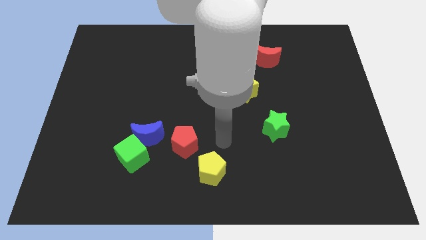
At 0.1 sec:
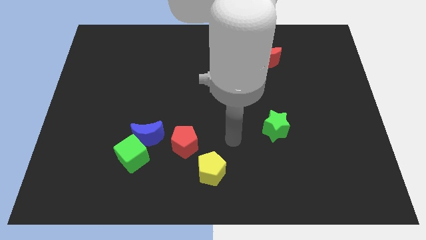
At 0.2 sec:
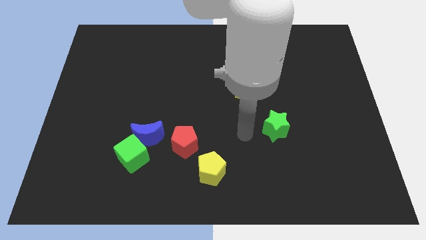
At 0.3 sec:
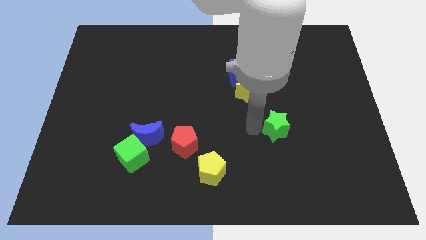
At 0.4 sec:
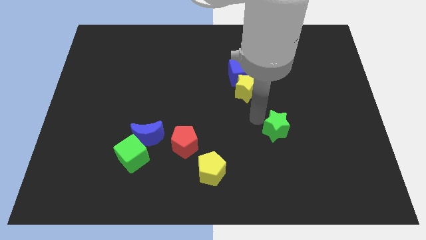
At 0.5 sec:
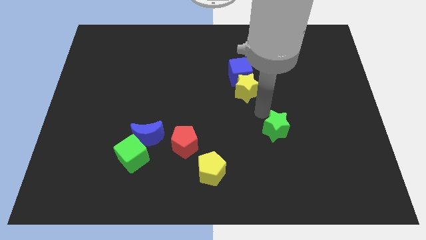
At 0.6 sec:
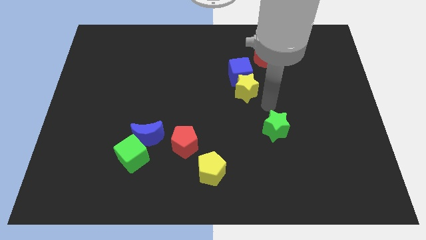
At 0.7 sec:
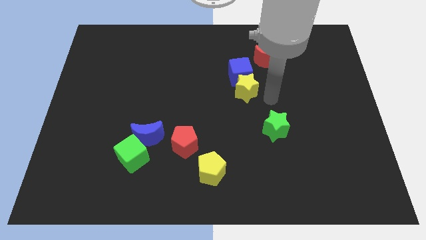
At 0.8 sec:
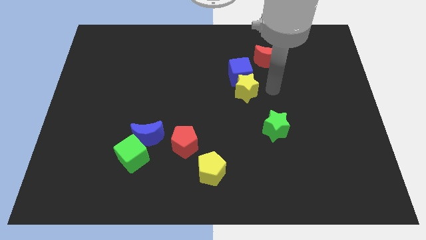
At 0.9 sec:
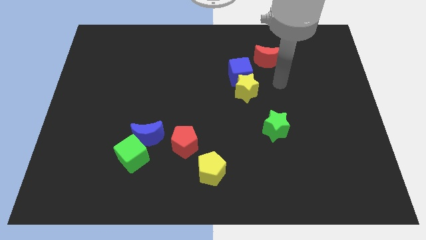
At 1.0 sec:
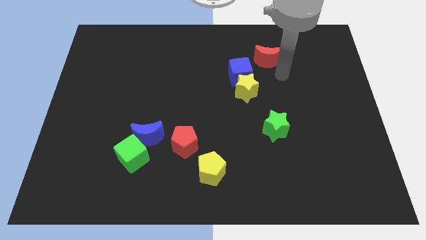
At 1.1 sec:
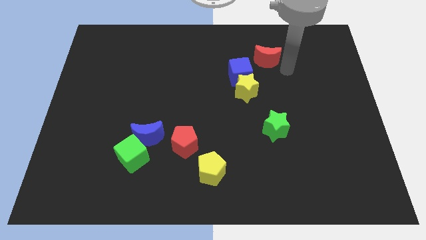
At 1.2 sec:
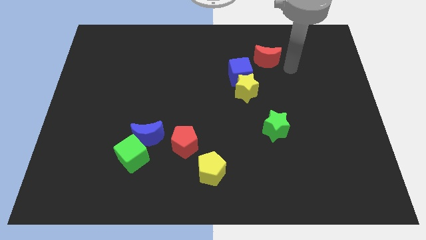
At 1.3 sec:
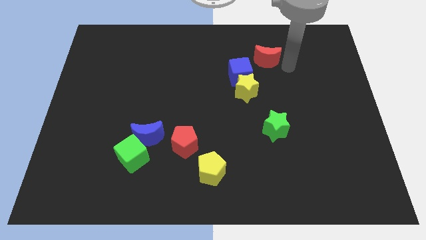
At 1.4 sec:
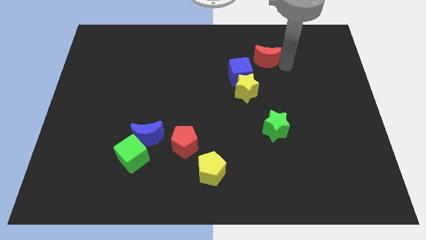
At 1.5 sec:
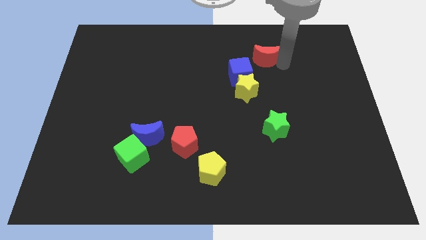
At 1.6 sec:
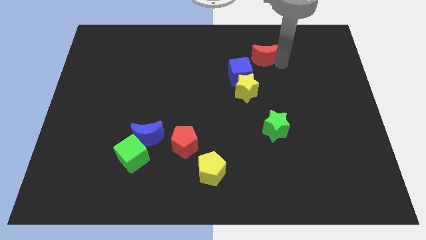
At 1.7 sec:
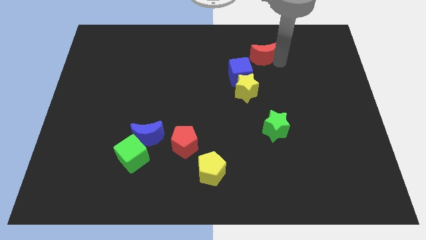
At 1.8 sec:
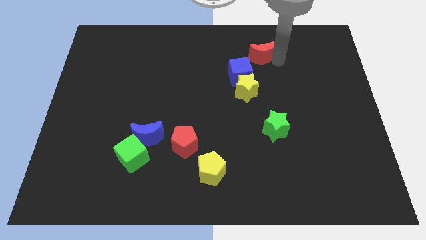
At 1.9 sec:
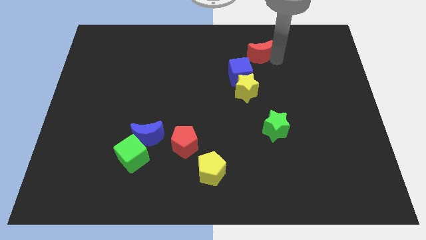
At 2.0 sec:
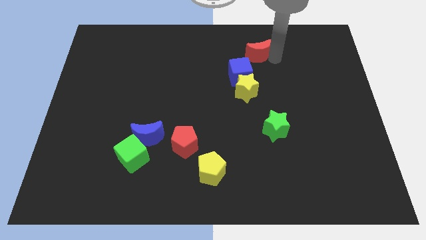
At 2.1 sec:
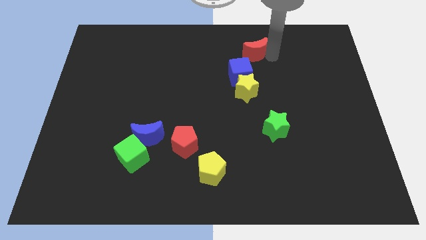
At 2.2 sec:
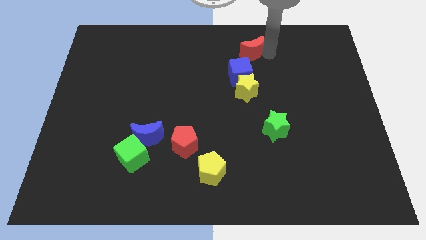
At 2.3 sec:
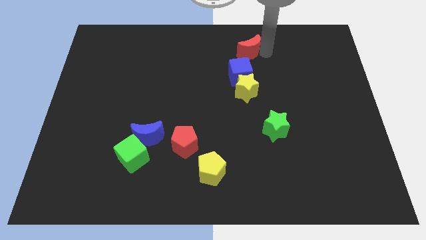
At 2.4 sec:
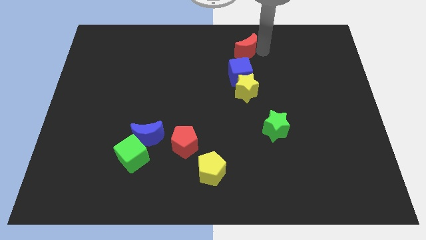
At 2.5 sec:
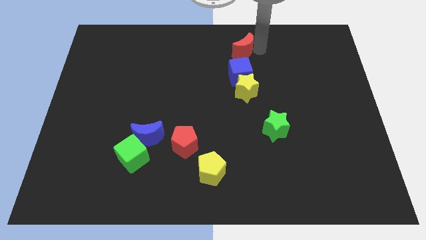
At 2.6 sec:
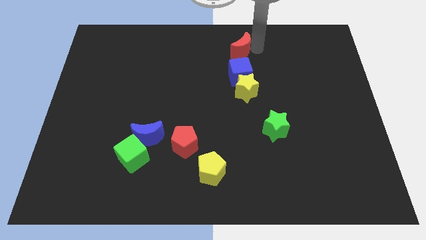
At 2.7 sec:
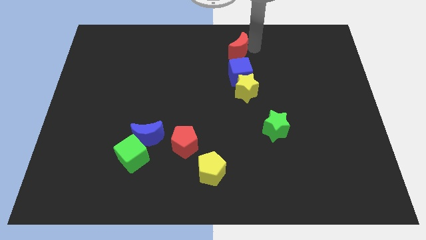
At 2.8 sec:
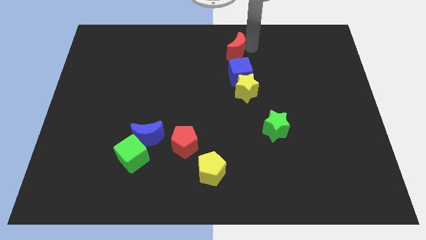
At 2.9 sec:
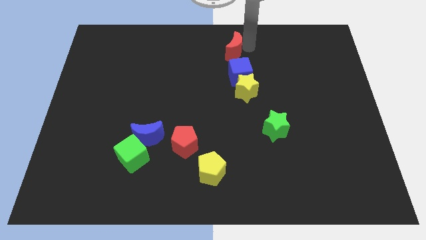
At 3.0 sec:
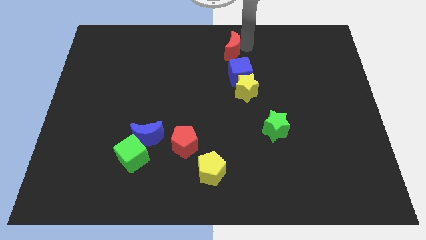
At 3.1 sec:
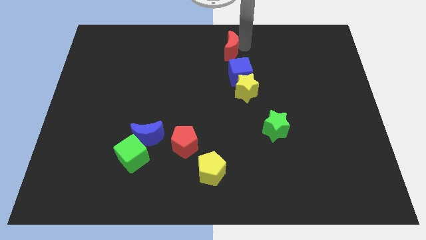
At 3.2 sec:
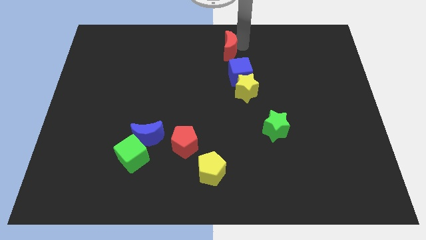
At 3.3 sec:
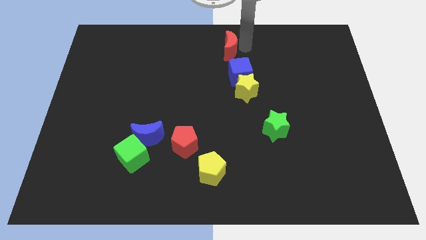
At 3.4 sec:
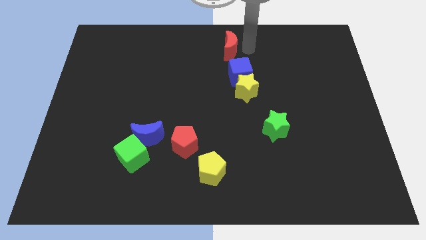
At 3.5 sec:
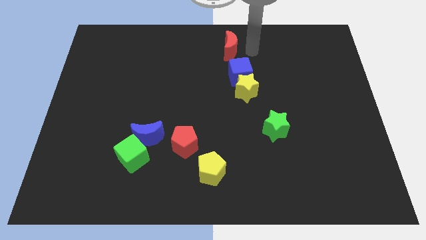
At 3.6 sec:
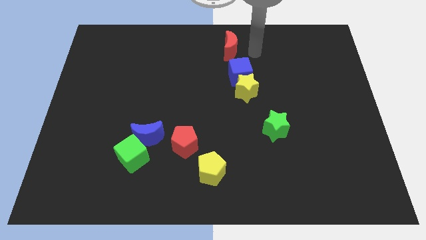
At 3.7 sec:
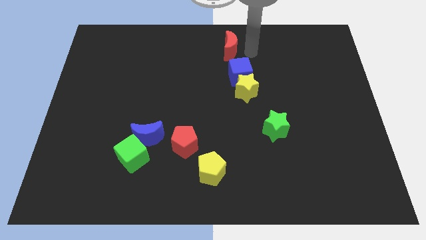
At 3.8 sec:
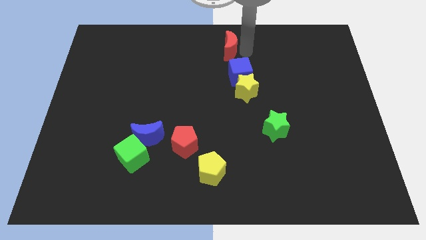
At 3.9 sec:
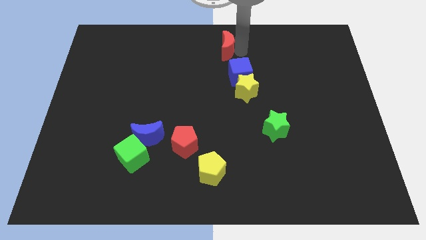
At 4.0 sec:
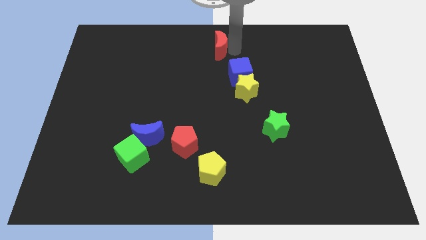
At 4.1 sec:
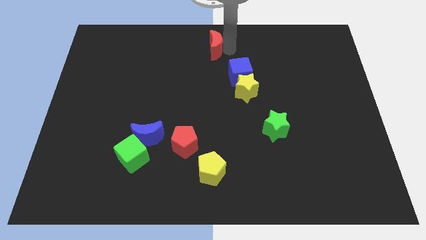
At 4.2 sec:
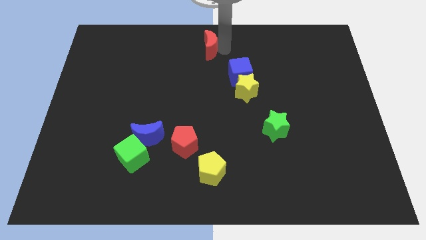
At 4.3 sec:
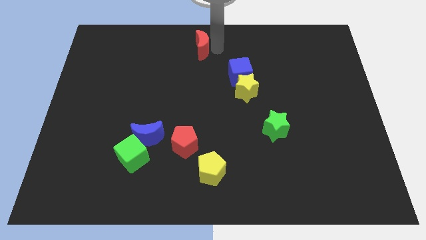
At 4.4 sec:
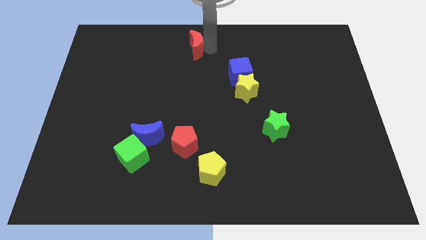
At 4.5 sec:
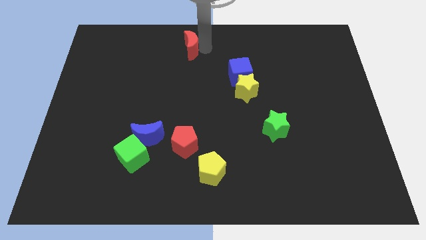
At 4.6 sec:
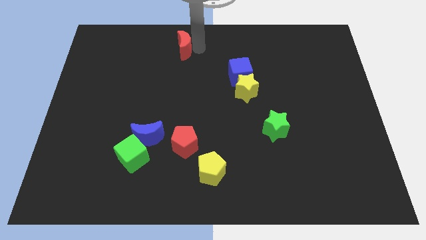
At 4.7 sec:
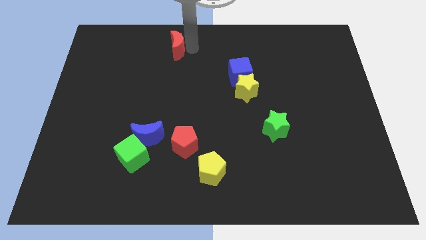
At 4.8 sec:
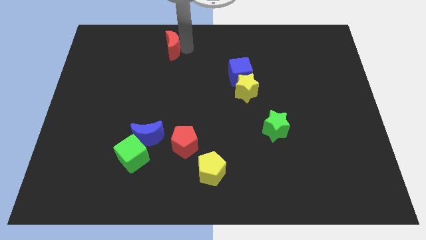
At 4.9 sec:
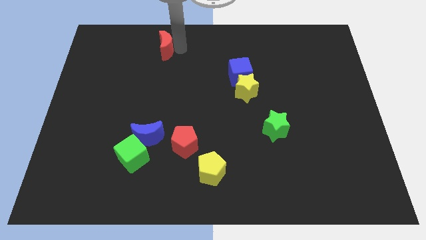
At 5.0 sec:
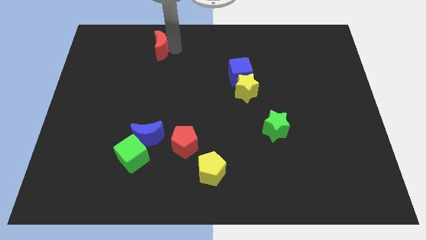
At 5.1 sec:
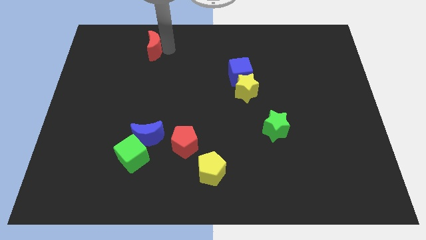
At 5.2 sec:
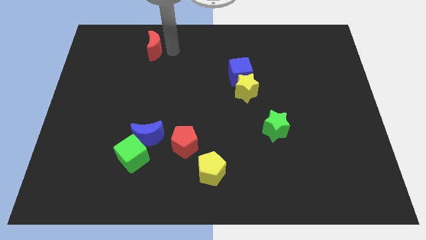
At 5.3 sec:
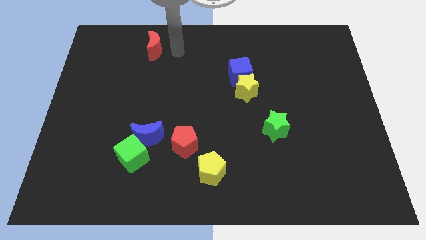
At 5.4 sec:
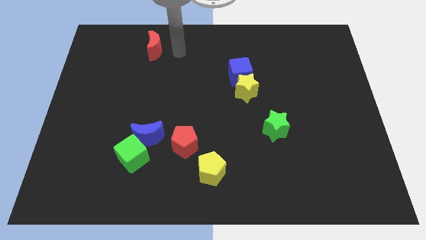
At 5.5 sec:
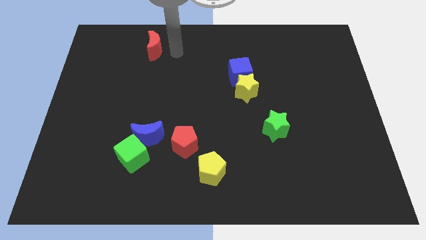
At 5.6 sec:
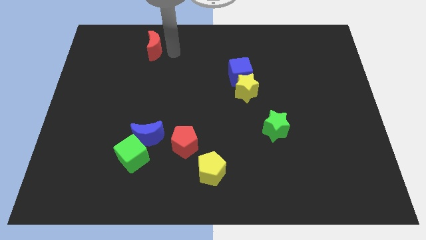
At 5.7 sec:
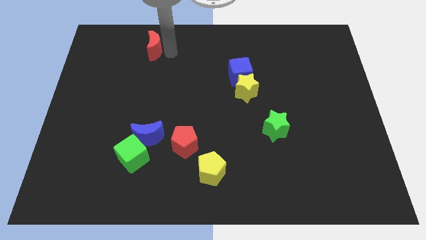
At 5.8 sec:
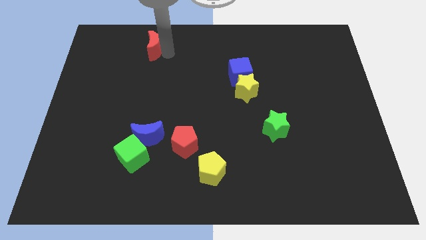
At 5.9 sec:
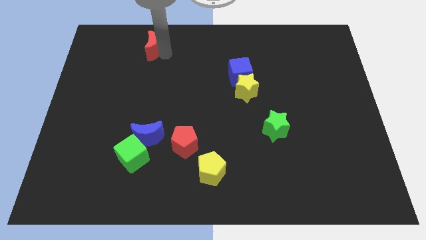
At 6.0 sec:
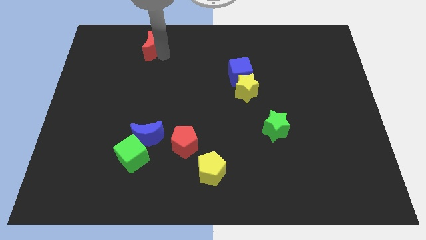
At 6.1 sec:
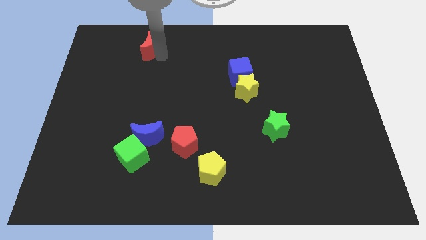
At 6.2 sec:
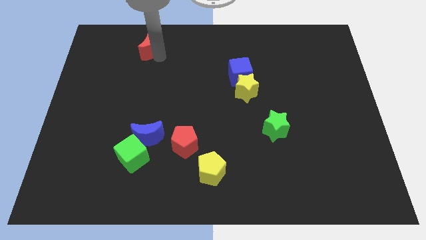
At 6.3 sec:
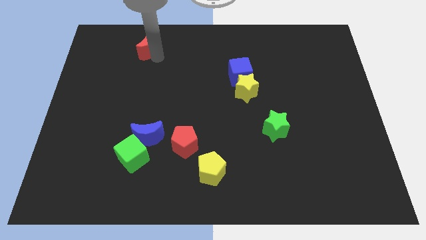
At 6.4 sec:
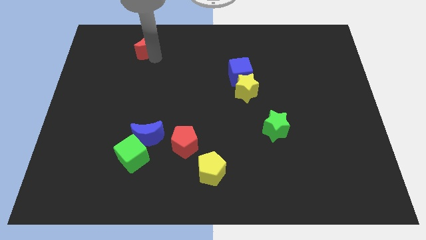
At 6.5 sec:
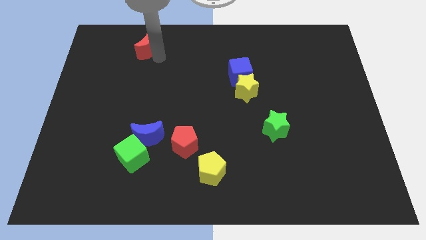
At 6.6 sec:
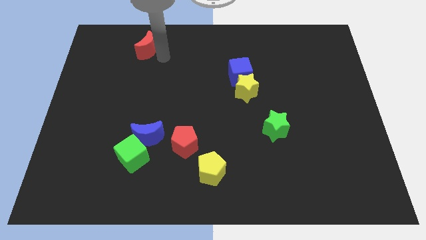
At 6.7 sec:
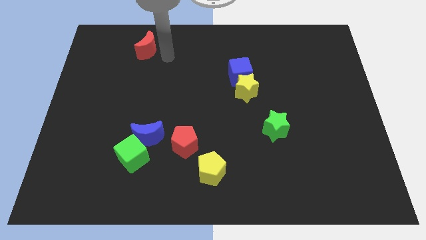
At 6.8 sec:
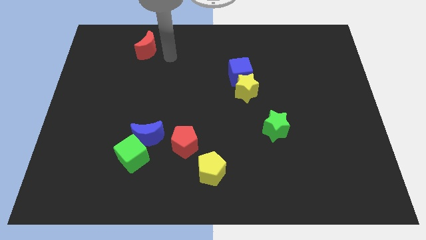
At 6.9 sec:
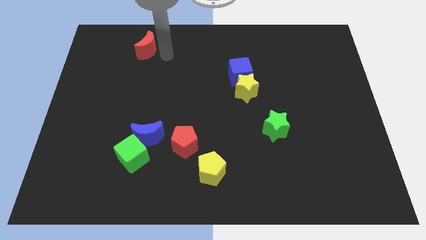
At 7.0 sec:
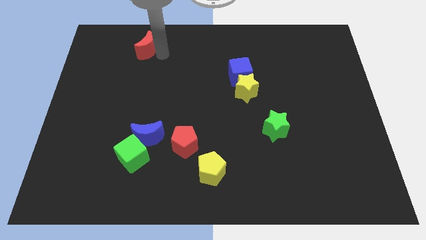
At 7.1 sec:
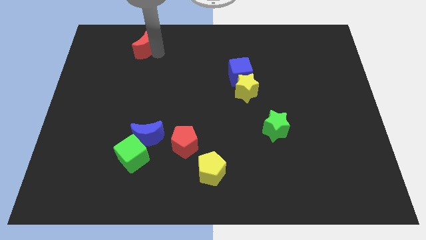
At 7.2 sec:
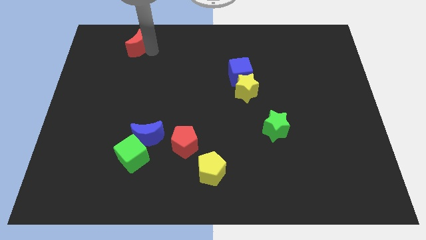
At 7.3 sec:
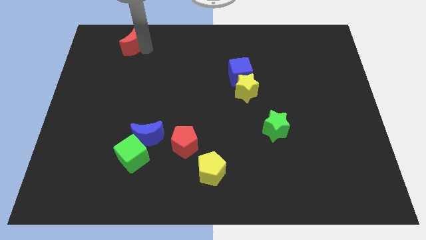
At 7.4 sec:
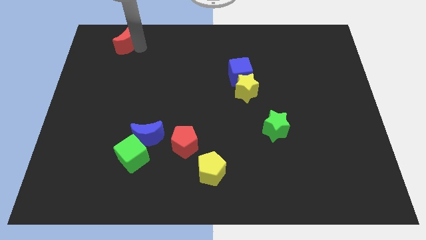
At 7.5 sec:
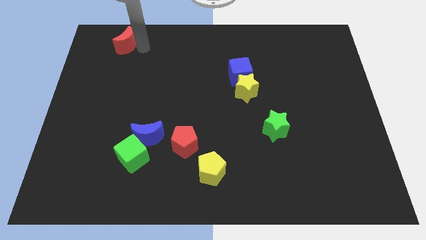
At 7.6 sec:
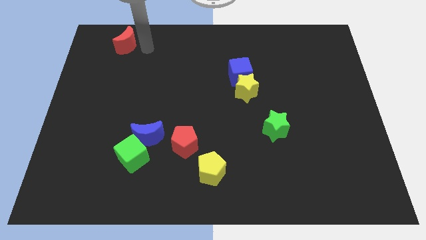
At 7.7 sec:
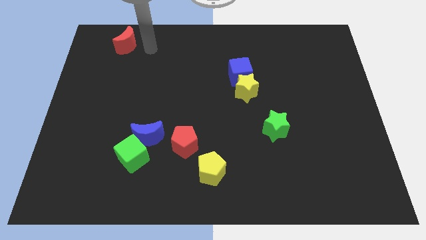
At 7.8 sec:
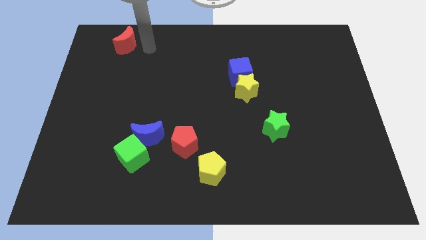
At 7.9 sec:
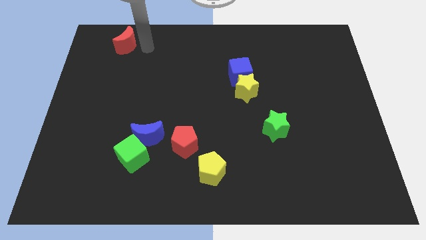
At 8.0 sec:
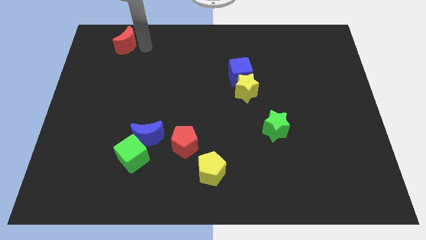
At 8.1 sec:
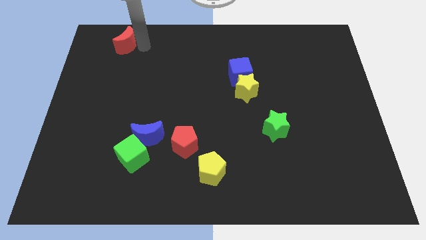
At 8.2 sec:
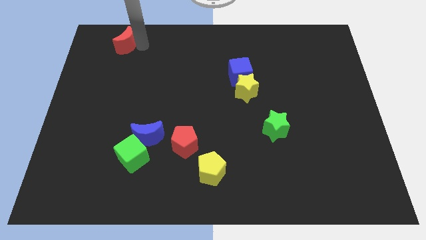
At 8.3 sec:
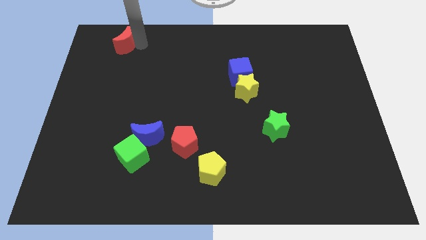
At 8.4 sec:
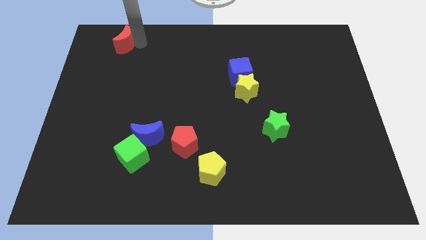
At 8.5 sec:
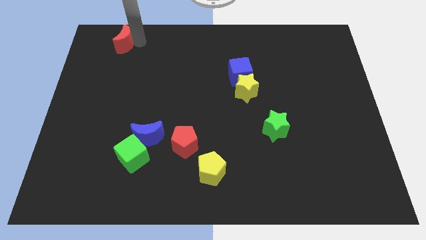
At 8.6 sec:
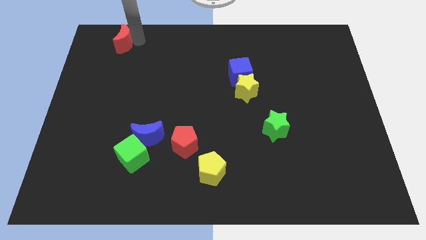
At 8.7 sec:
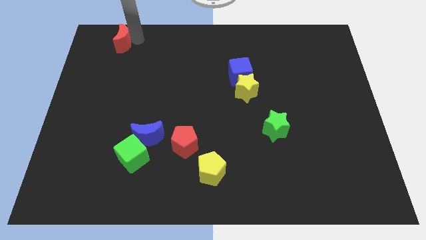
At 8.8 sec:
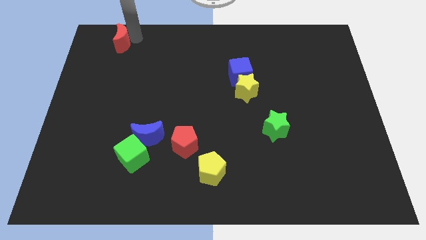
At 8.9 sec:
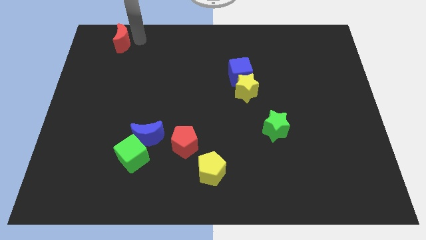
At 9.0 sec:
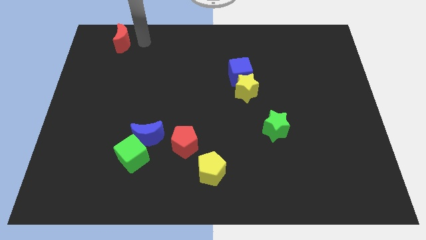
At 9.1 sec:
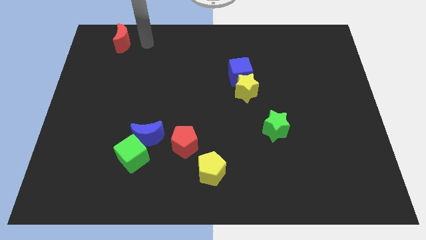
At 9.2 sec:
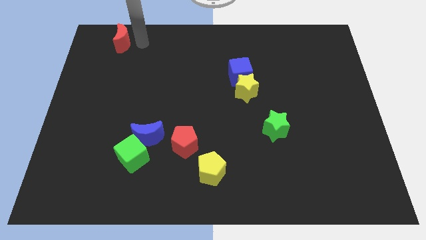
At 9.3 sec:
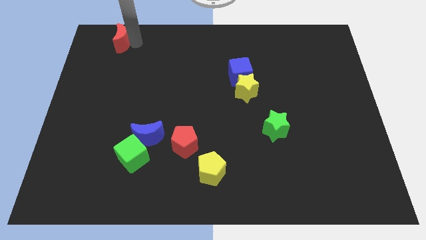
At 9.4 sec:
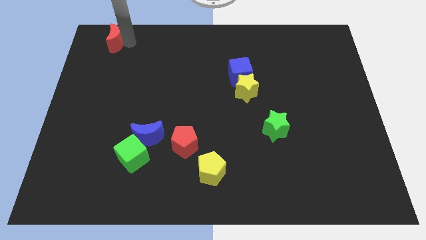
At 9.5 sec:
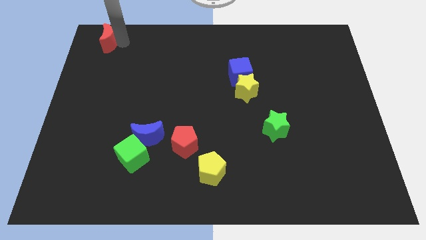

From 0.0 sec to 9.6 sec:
move the red moon to the top left of the board
